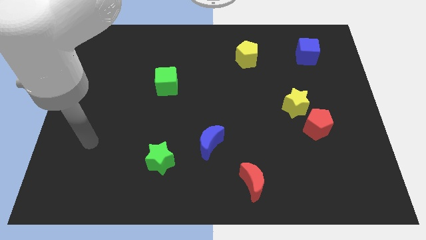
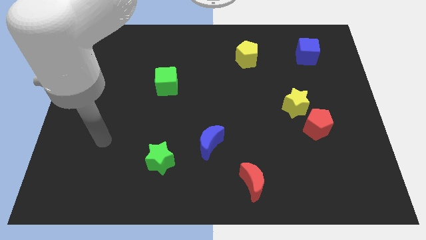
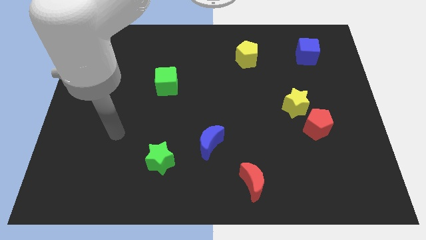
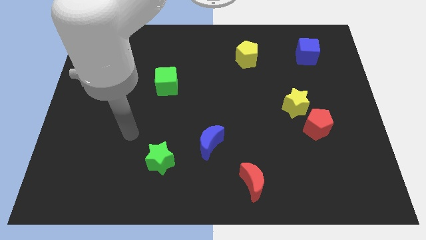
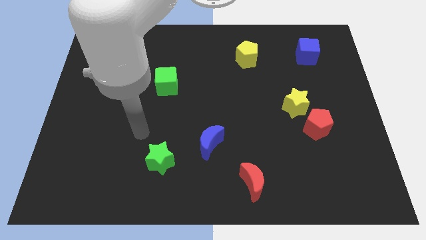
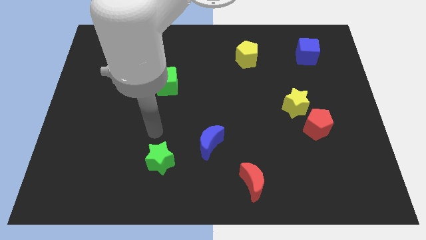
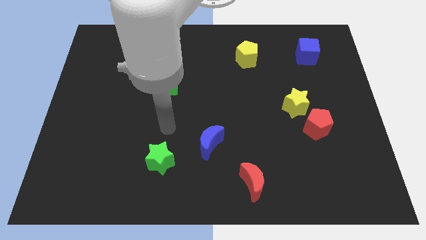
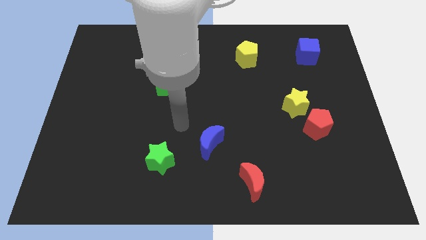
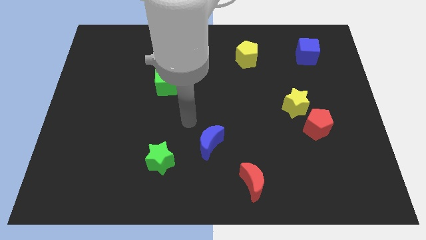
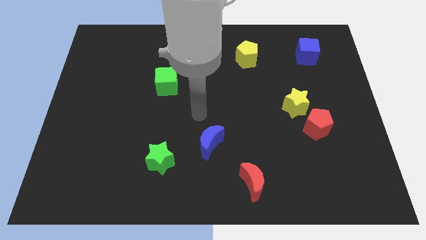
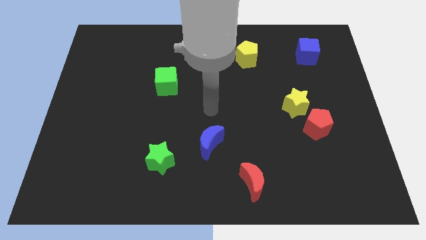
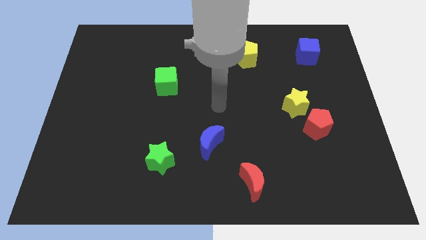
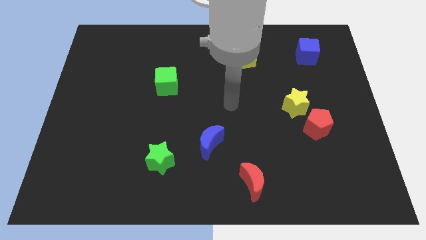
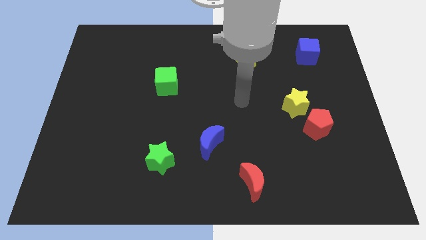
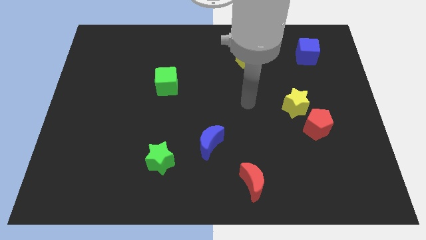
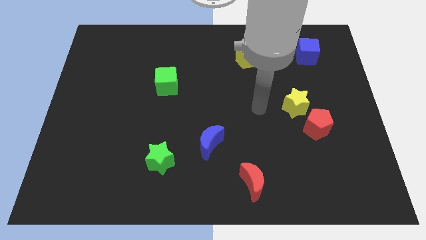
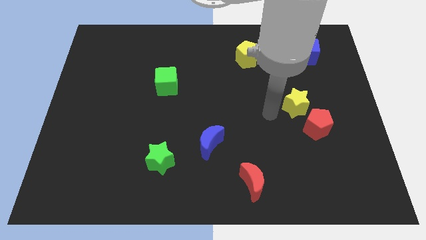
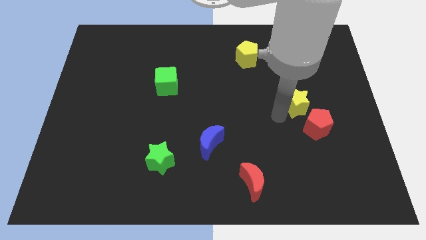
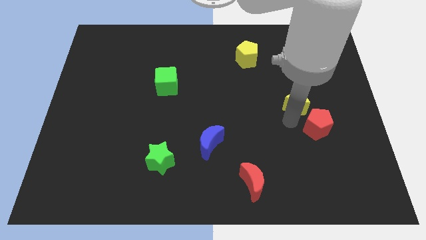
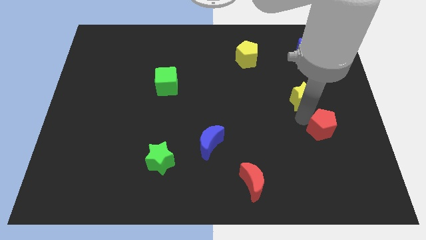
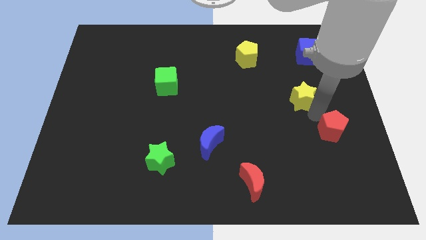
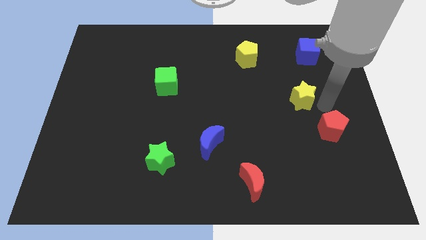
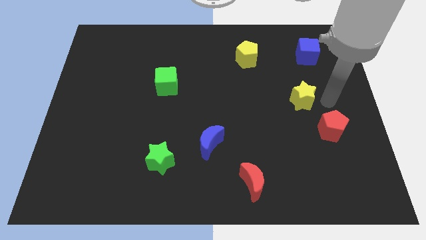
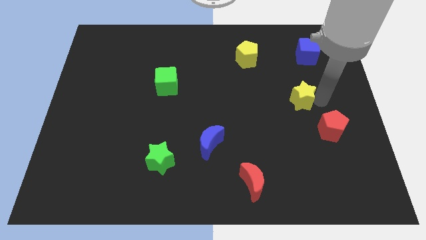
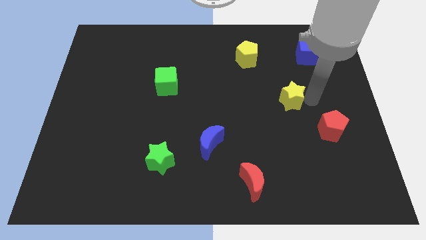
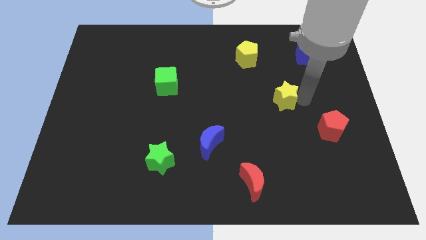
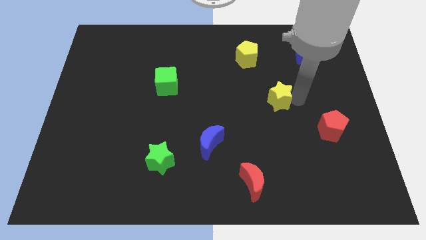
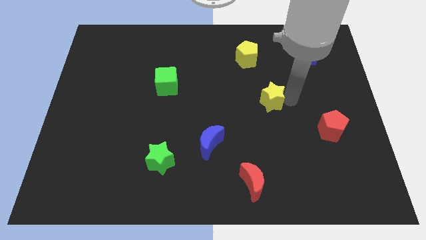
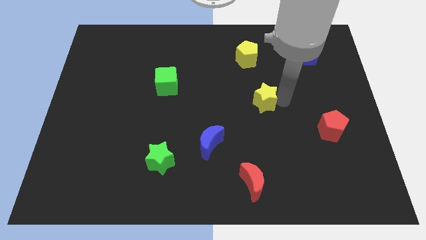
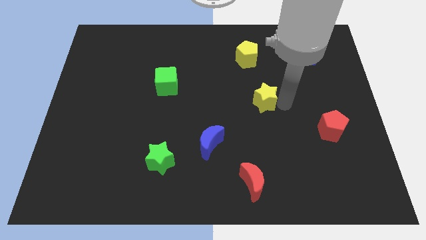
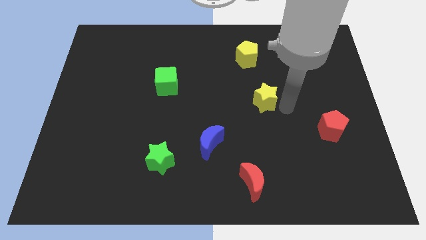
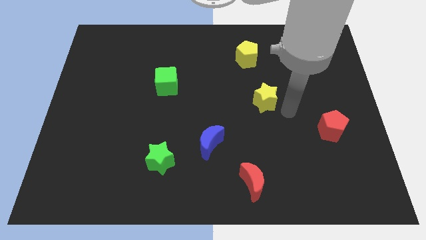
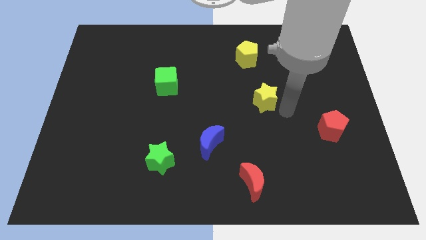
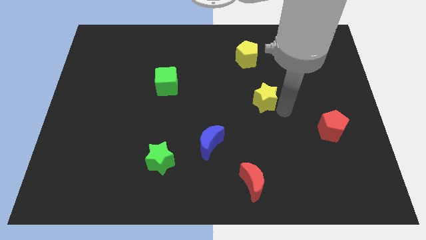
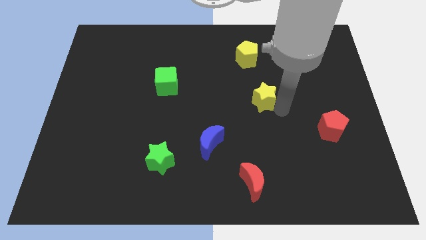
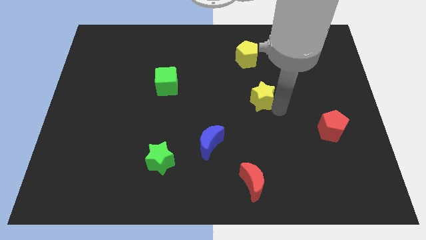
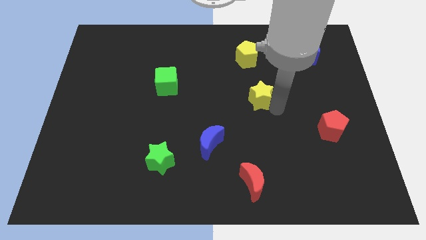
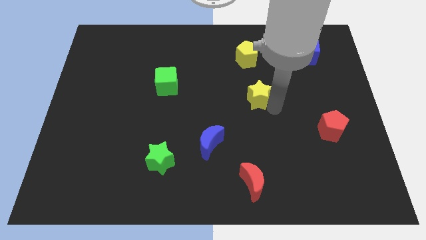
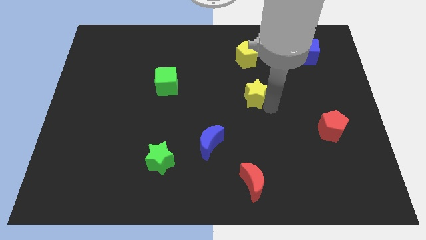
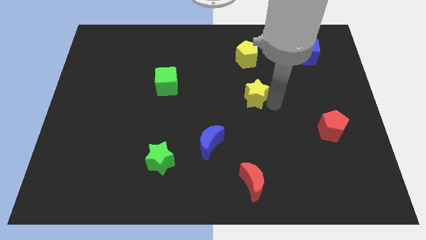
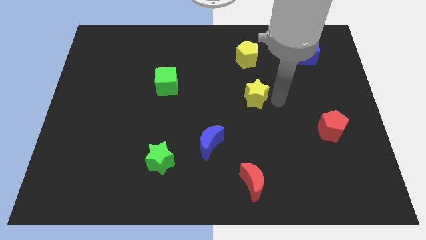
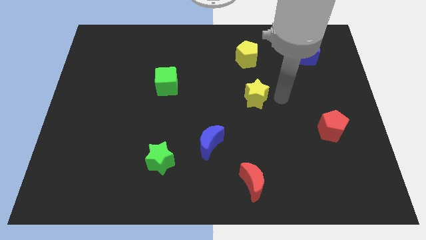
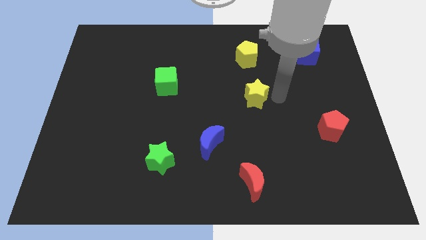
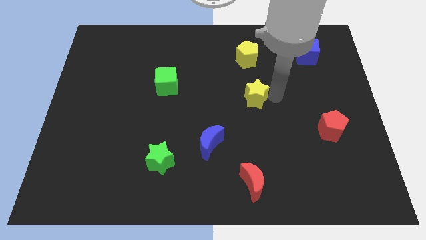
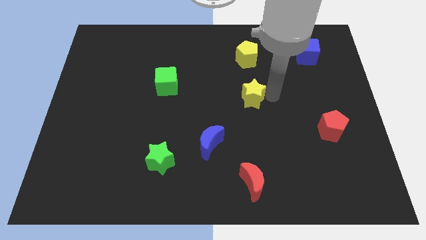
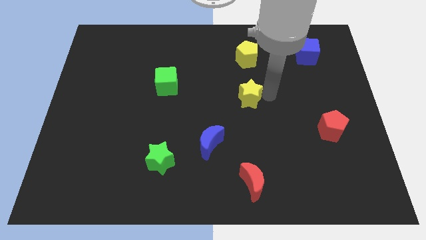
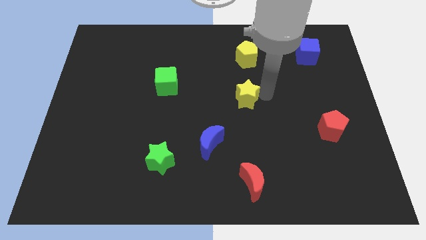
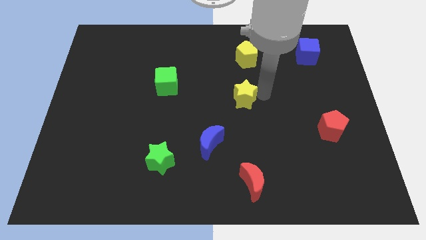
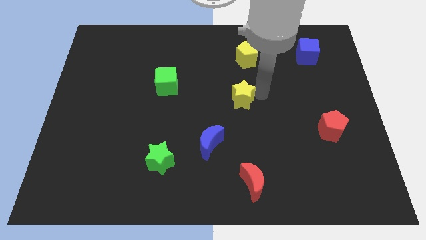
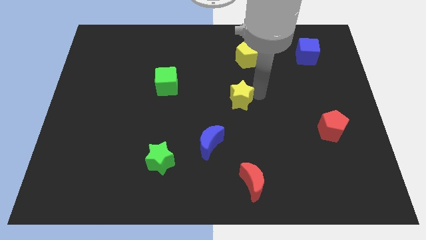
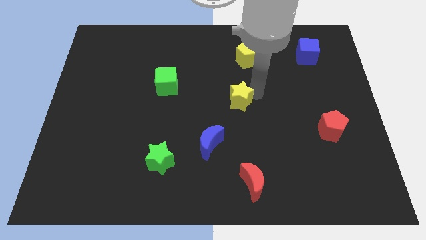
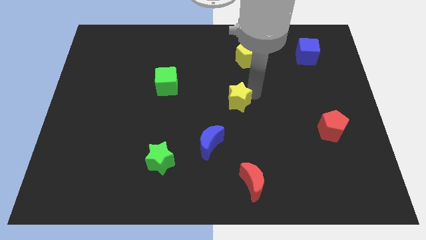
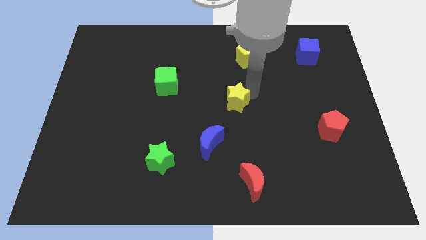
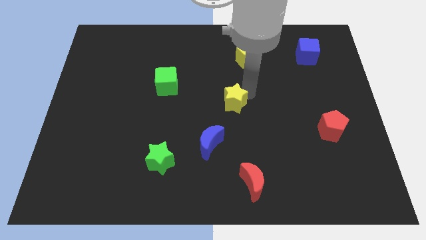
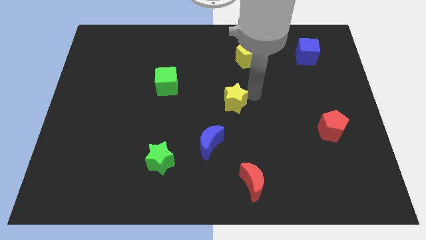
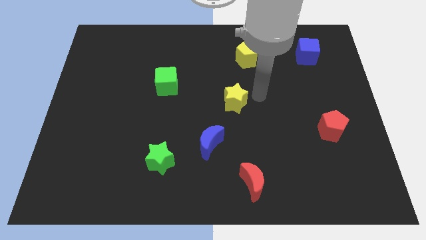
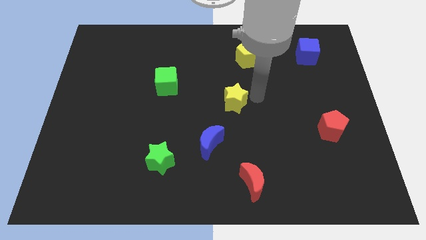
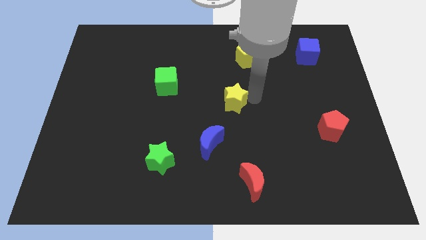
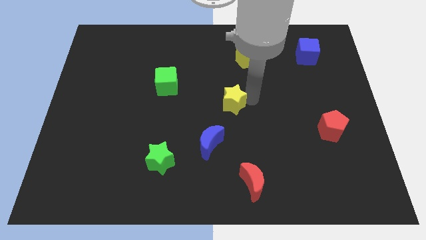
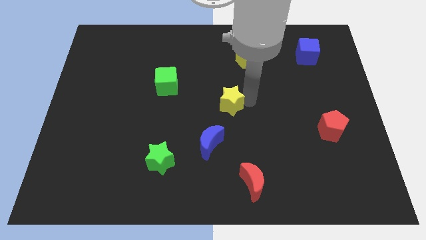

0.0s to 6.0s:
slide the yellow star to the top side of the blue moon

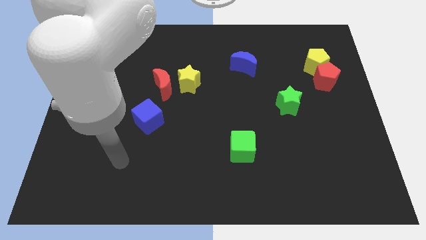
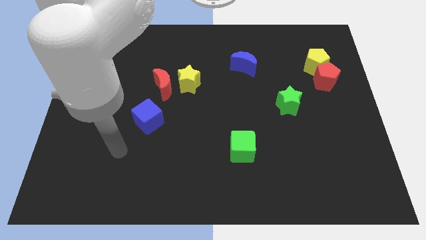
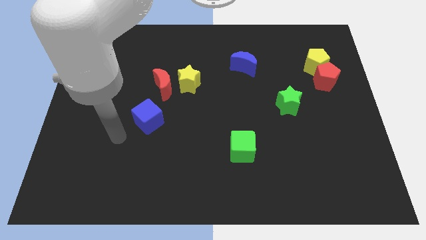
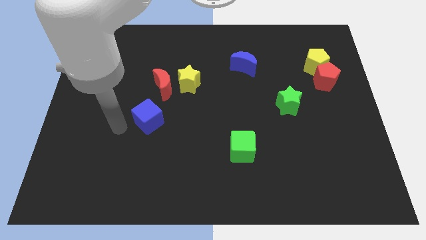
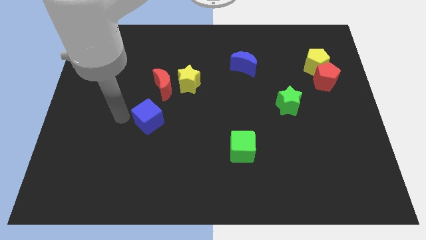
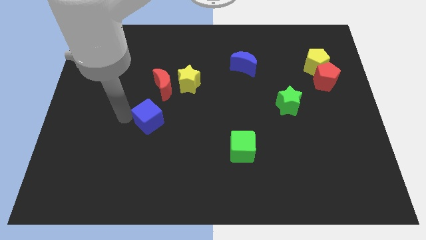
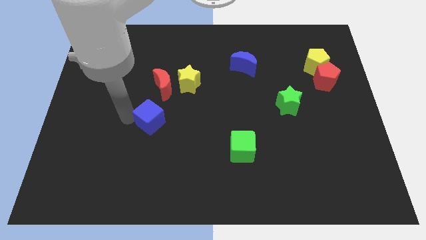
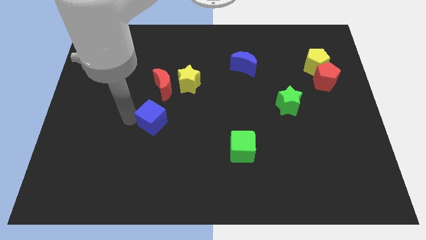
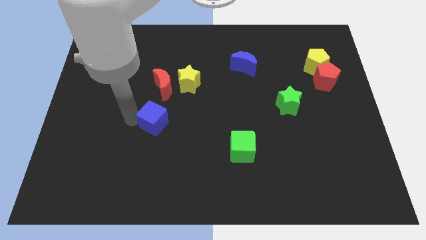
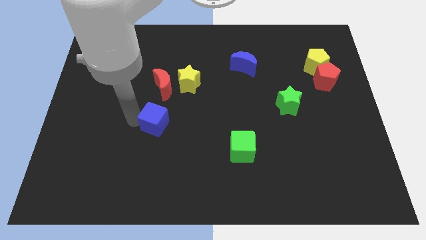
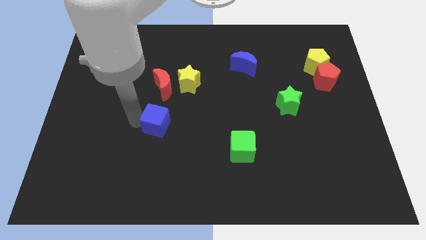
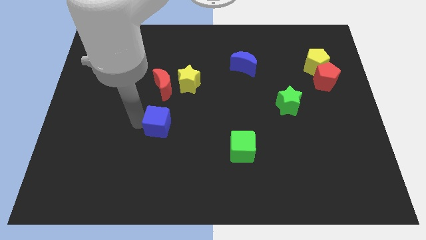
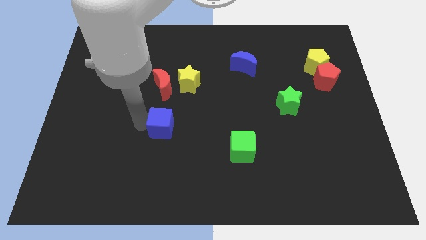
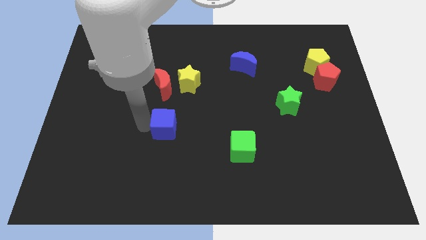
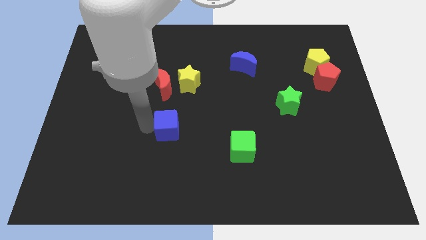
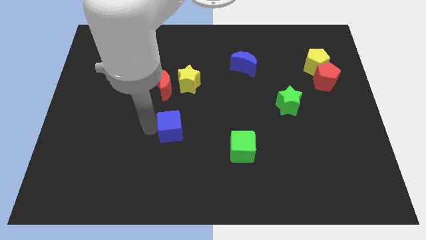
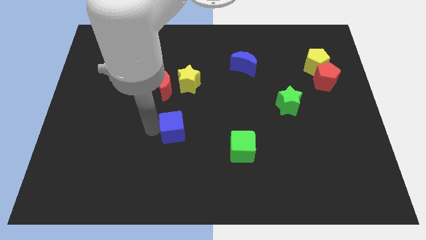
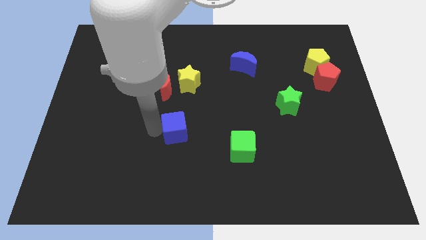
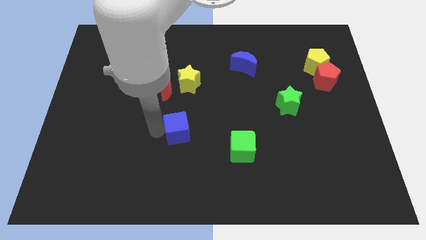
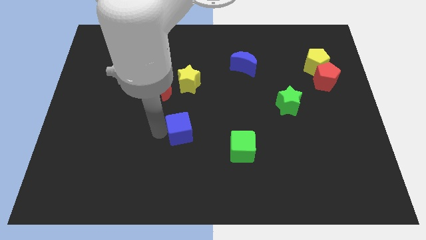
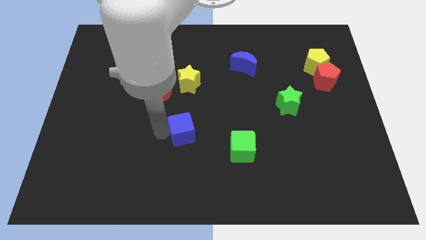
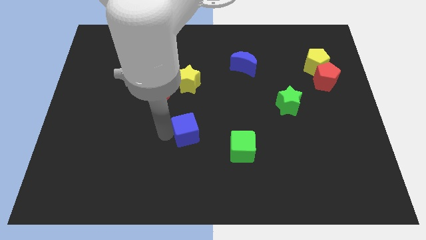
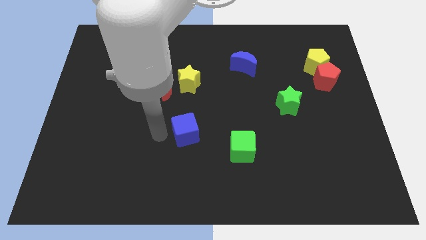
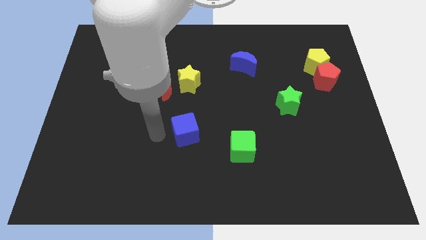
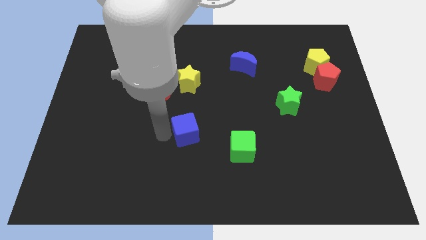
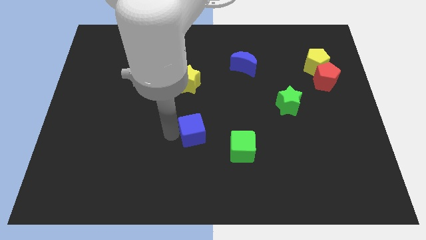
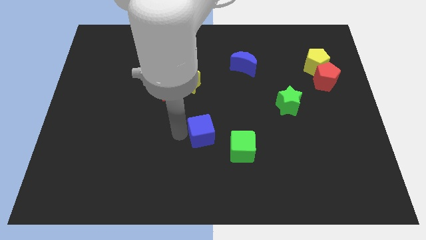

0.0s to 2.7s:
put the blue cube diagonally up and to the left of the green cube
